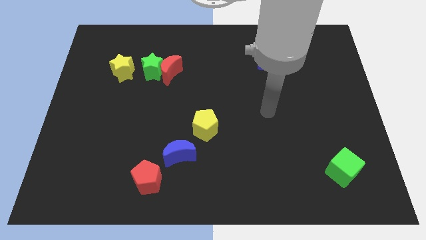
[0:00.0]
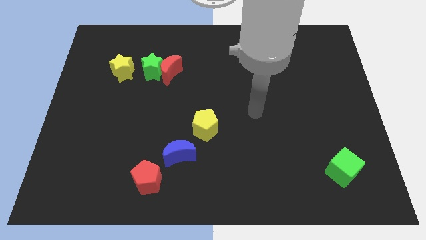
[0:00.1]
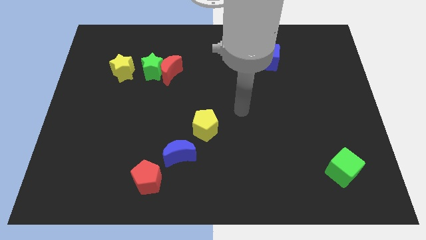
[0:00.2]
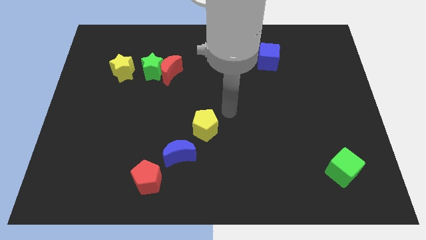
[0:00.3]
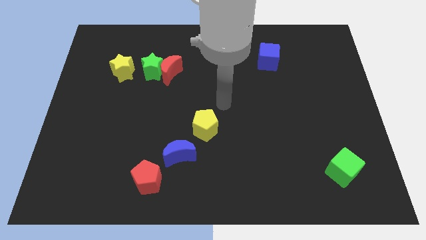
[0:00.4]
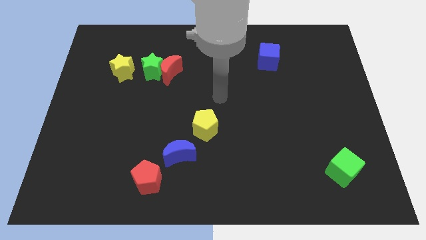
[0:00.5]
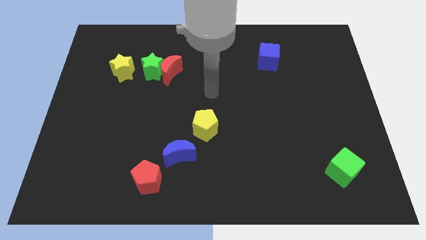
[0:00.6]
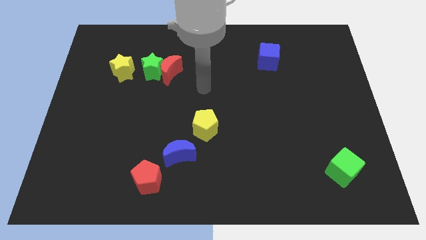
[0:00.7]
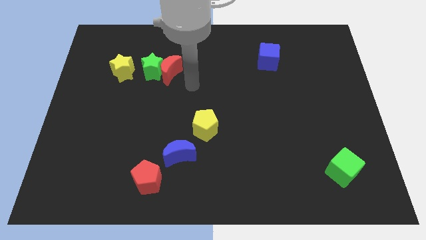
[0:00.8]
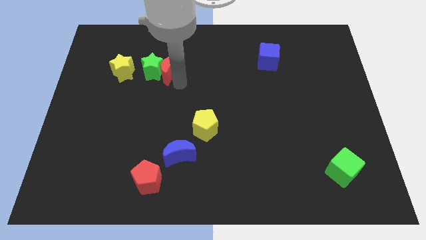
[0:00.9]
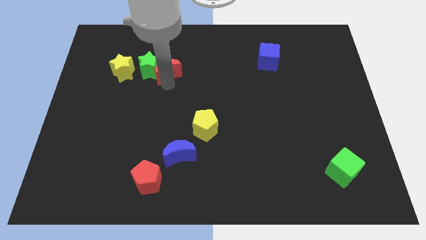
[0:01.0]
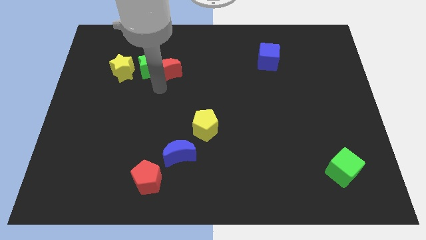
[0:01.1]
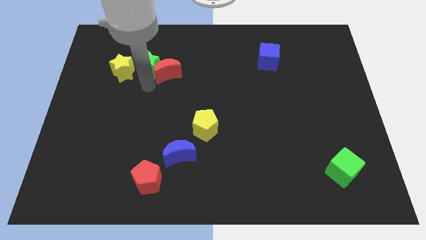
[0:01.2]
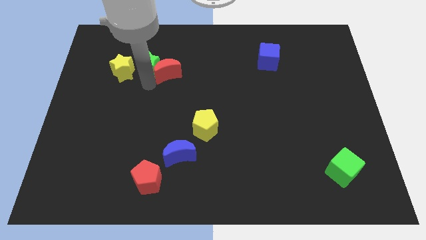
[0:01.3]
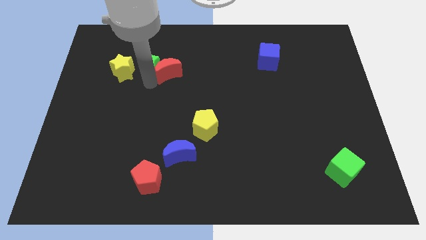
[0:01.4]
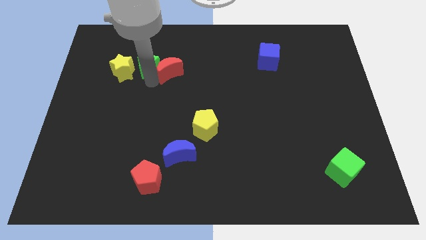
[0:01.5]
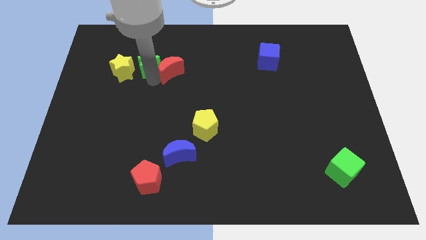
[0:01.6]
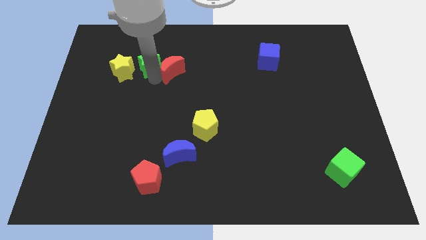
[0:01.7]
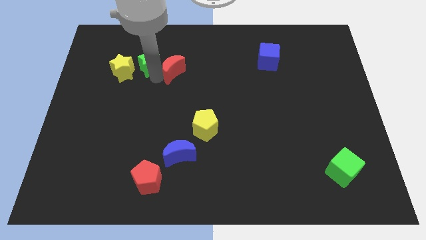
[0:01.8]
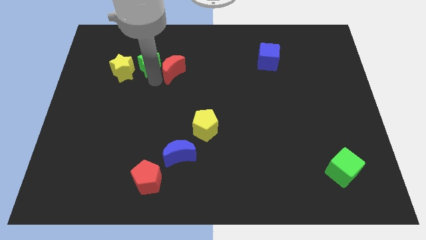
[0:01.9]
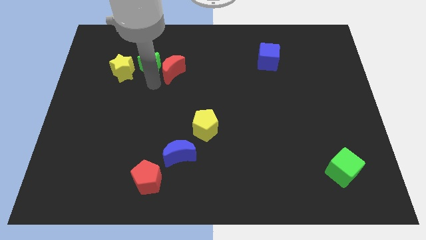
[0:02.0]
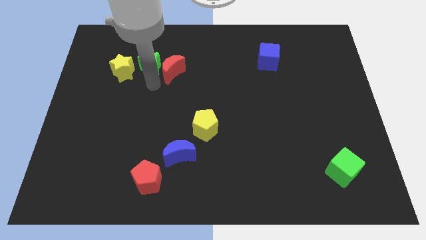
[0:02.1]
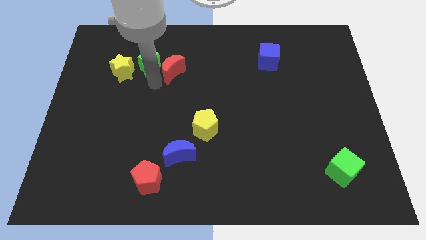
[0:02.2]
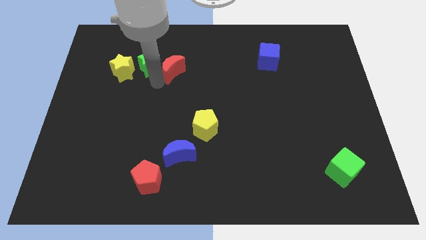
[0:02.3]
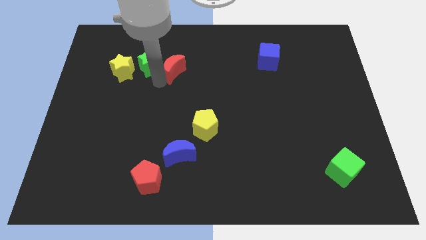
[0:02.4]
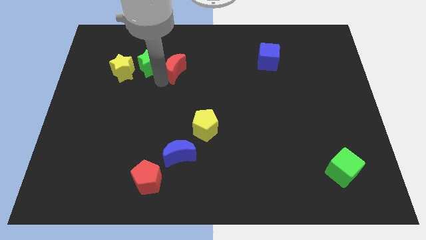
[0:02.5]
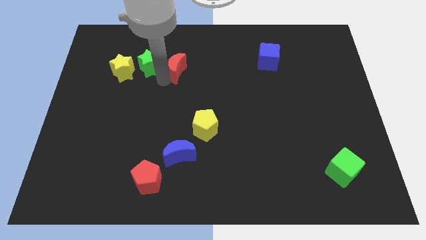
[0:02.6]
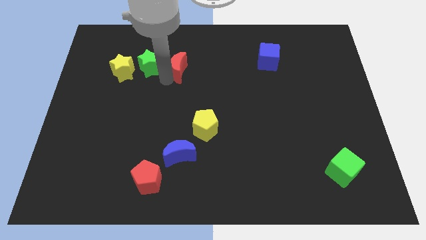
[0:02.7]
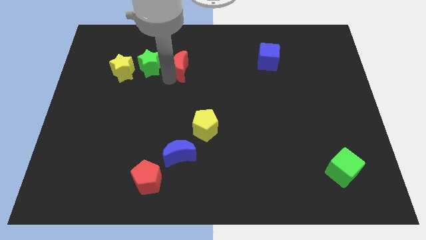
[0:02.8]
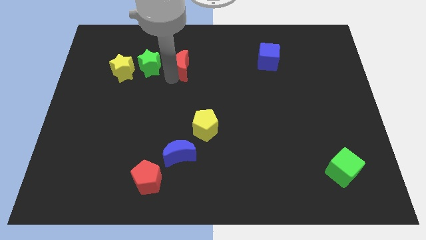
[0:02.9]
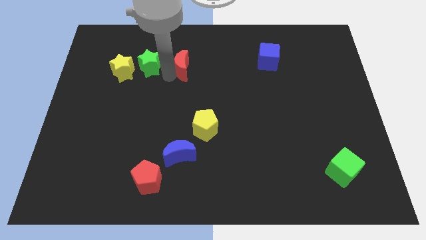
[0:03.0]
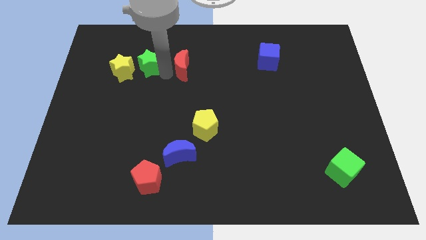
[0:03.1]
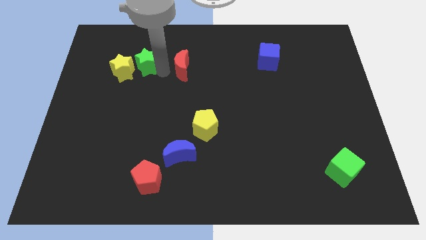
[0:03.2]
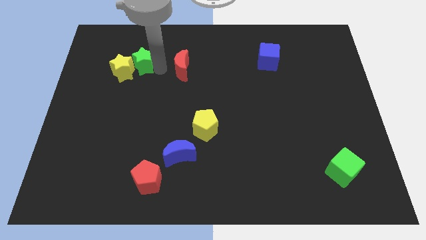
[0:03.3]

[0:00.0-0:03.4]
separate the red moon from the green star

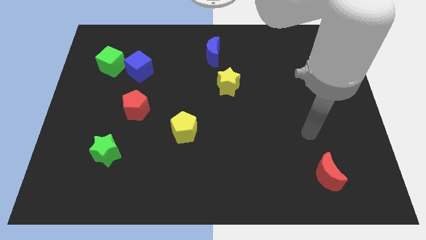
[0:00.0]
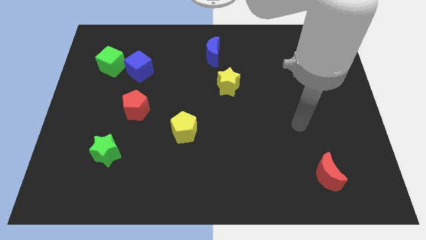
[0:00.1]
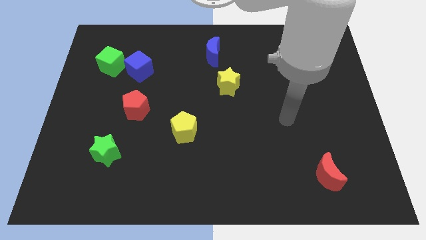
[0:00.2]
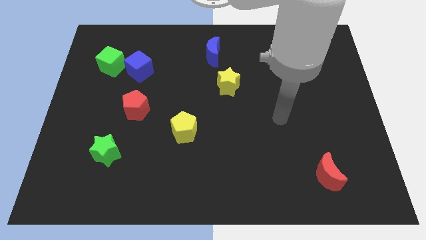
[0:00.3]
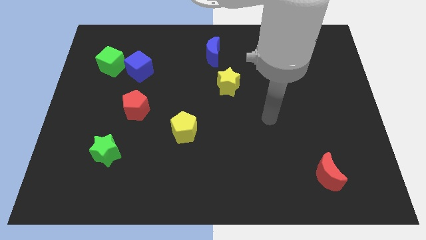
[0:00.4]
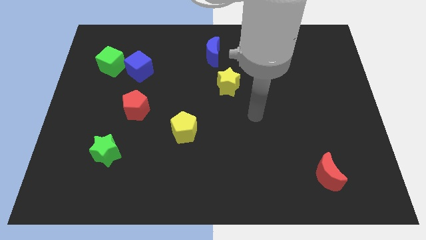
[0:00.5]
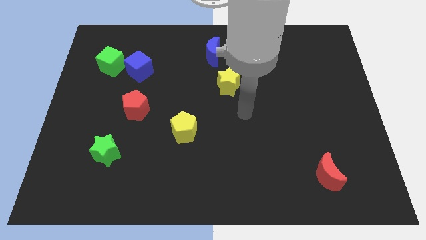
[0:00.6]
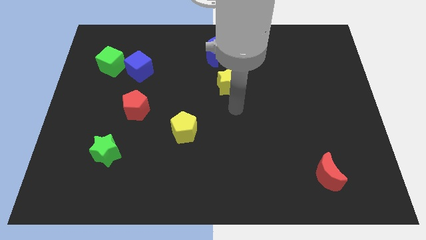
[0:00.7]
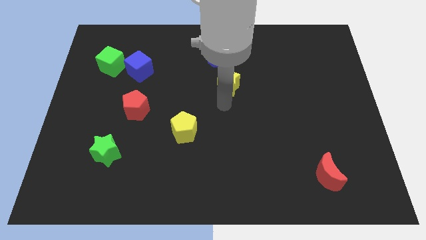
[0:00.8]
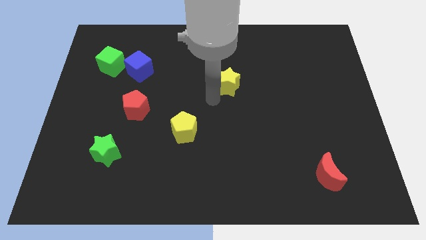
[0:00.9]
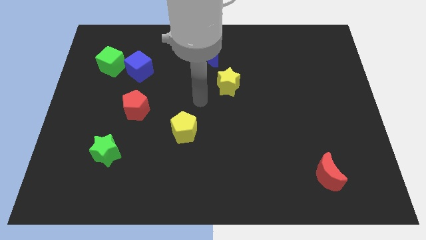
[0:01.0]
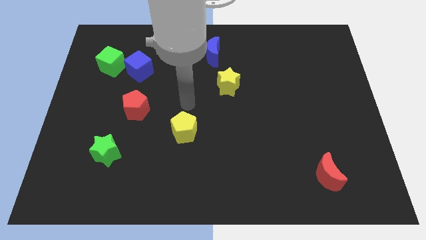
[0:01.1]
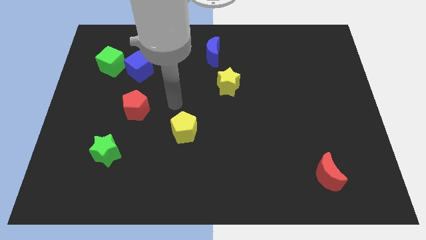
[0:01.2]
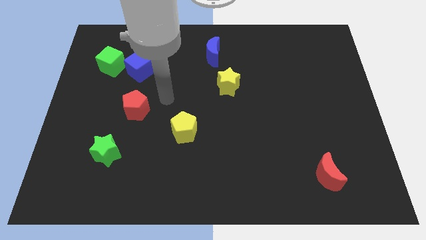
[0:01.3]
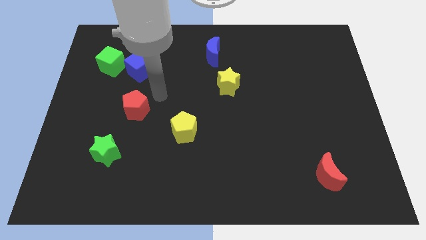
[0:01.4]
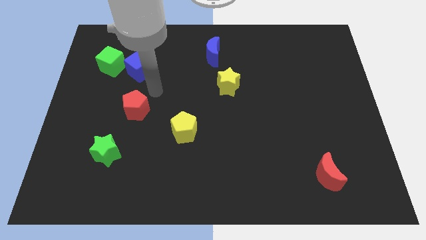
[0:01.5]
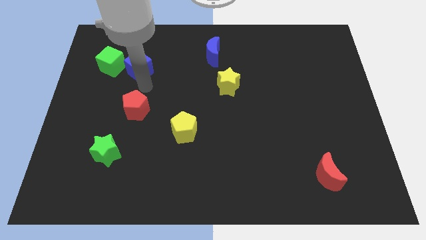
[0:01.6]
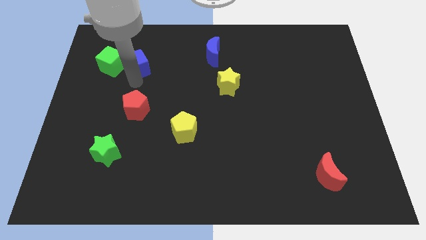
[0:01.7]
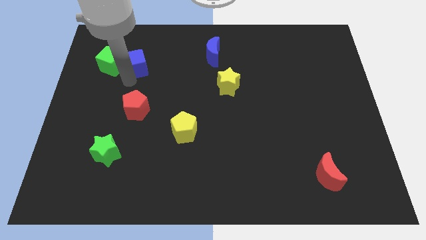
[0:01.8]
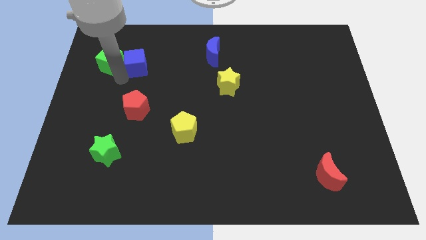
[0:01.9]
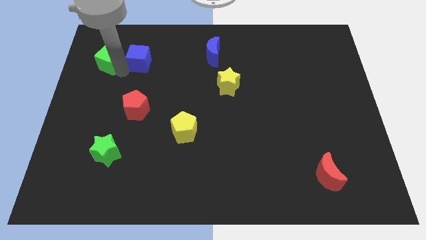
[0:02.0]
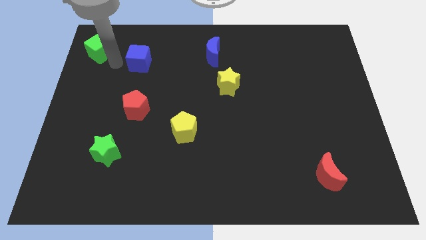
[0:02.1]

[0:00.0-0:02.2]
pull the blue cube apart from the green cube

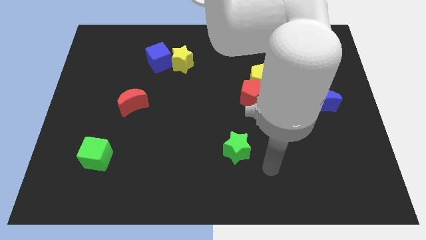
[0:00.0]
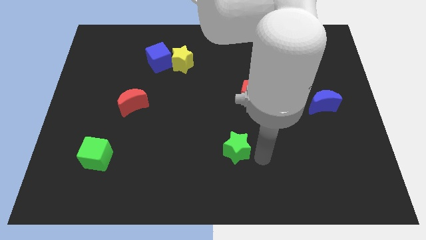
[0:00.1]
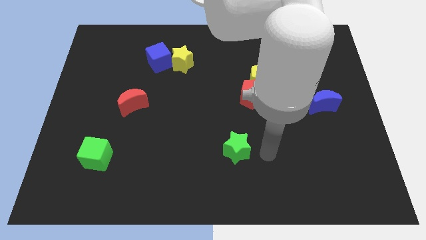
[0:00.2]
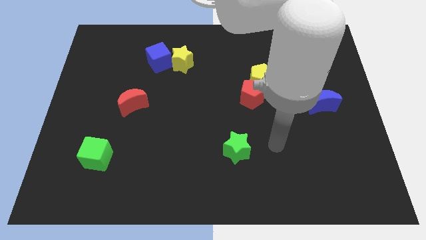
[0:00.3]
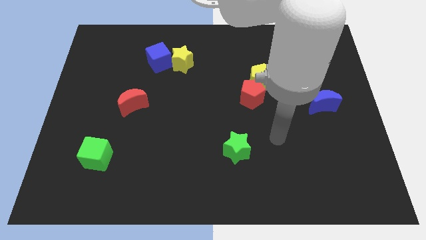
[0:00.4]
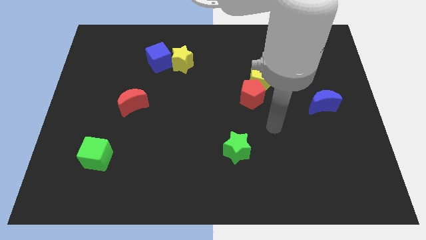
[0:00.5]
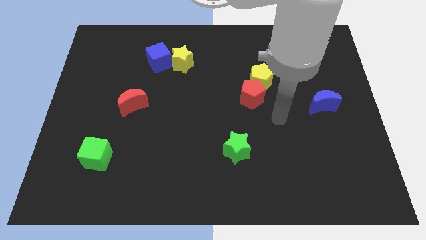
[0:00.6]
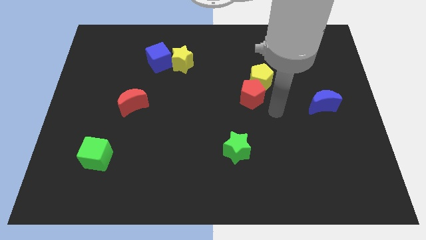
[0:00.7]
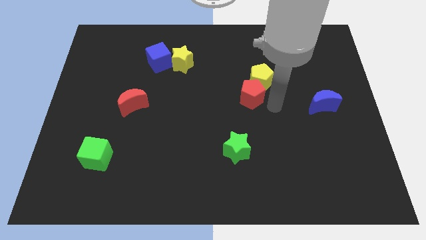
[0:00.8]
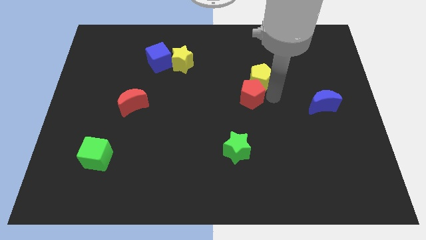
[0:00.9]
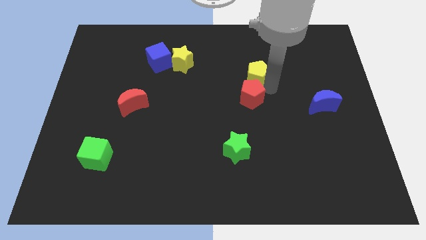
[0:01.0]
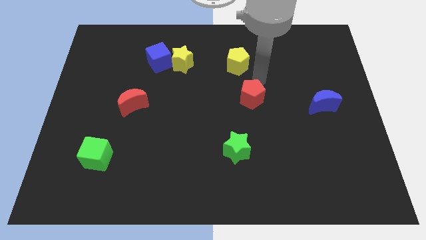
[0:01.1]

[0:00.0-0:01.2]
separate the red pentagon from the yellow pentagon

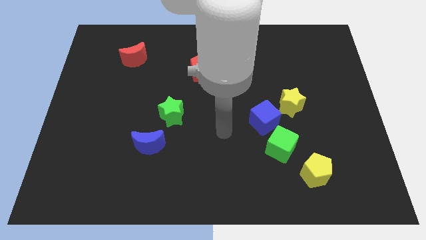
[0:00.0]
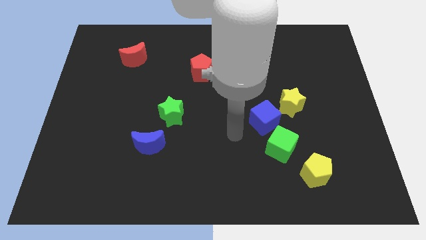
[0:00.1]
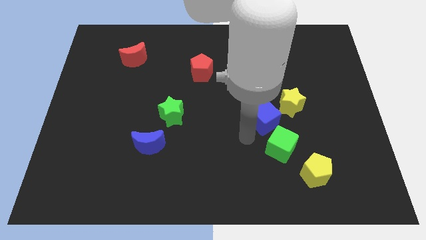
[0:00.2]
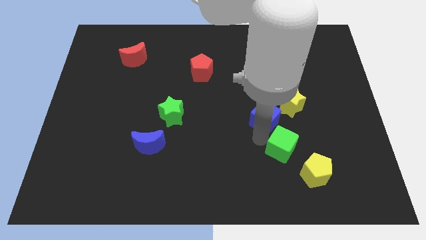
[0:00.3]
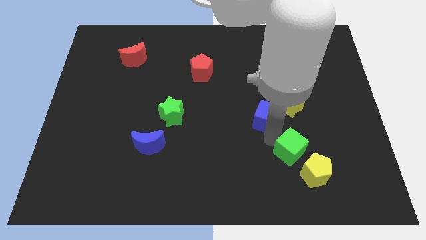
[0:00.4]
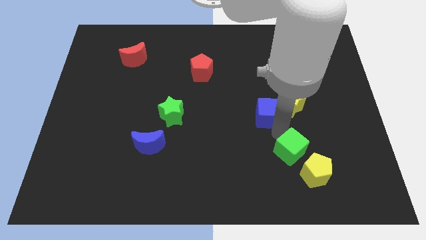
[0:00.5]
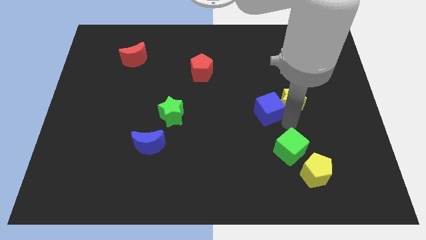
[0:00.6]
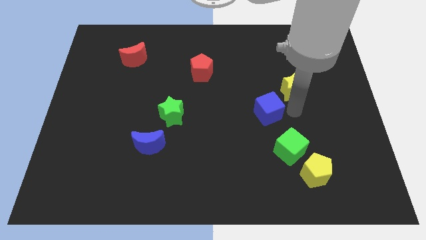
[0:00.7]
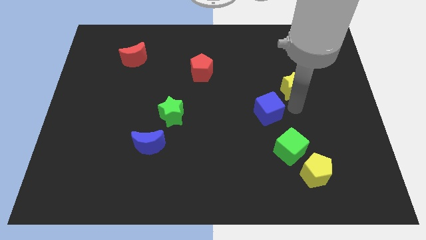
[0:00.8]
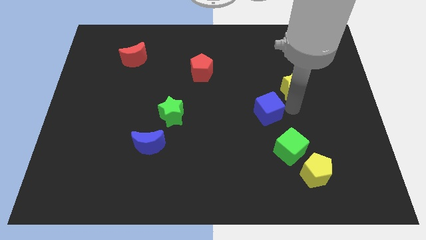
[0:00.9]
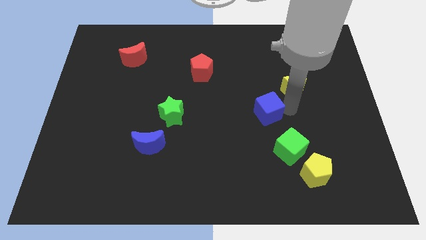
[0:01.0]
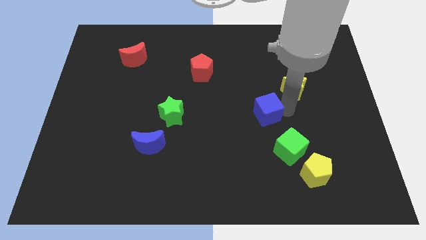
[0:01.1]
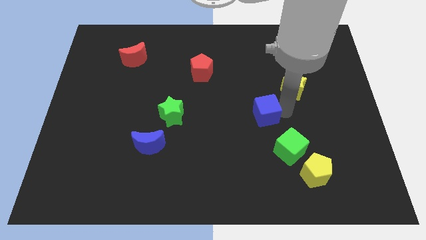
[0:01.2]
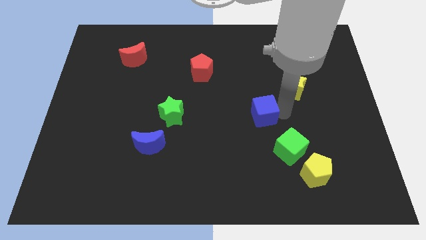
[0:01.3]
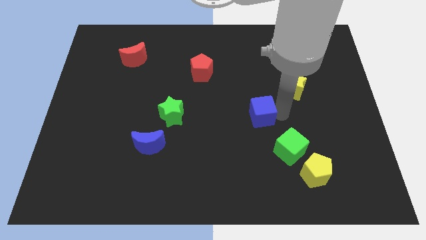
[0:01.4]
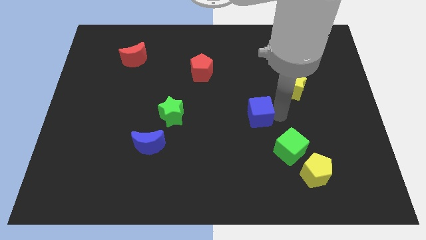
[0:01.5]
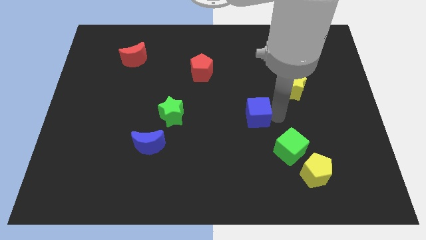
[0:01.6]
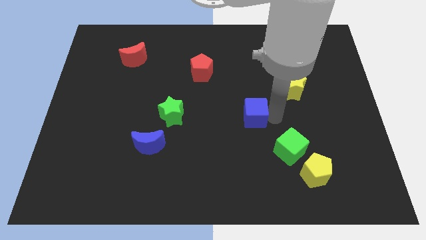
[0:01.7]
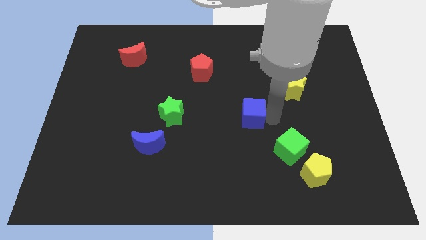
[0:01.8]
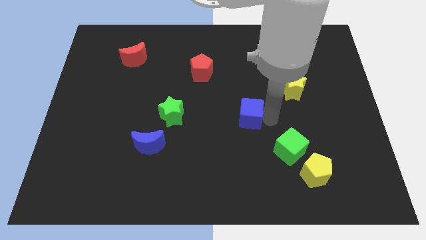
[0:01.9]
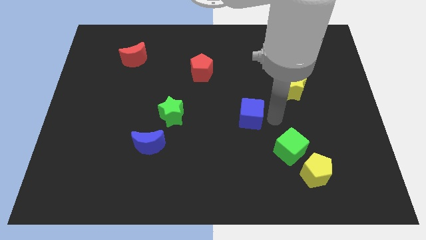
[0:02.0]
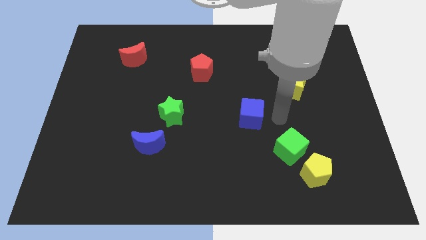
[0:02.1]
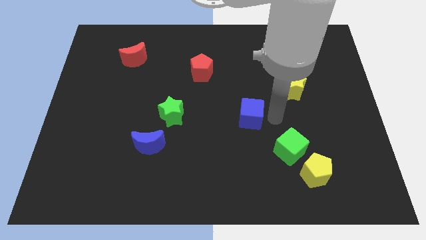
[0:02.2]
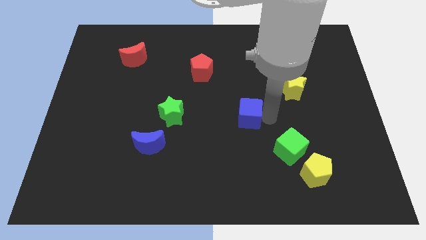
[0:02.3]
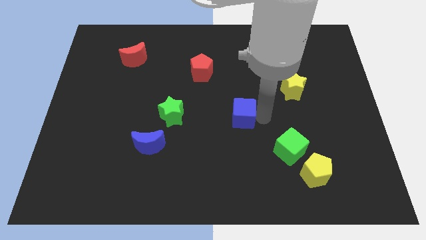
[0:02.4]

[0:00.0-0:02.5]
separate the blue cube from the green cube and yellow star

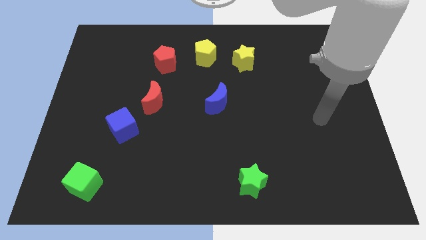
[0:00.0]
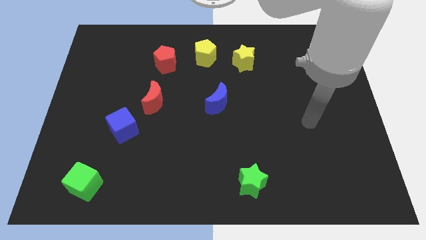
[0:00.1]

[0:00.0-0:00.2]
separate the red moon from the blue cube
